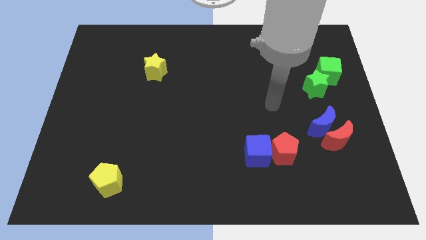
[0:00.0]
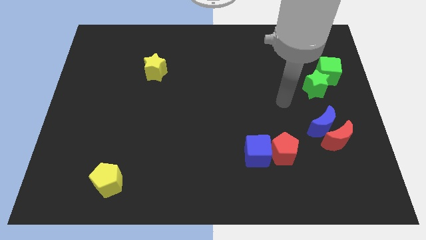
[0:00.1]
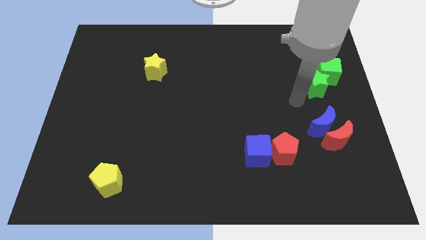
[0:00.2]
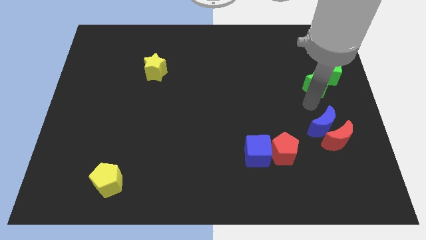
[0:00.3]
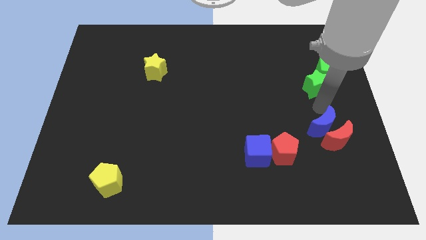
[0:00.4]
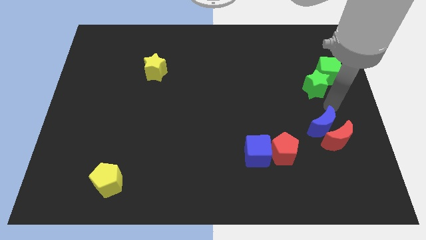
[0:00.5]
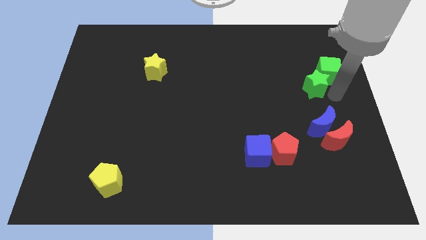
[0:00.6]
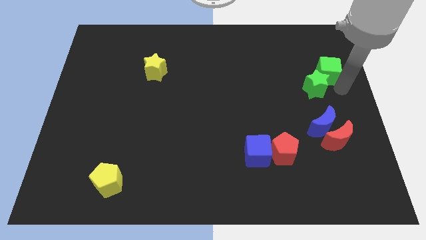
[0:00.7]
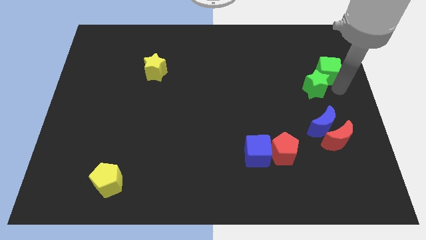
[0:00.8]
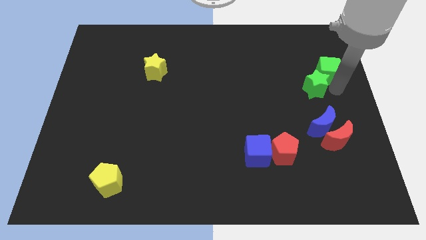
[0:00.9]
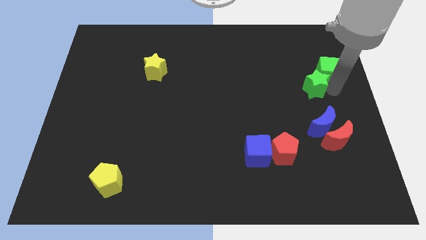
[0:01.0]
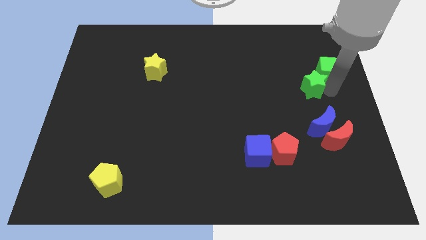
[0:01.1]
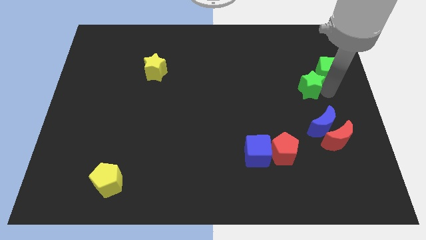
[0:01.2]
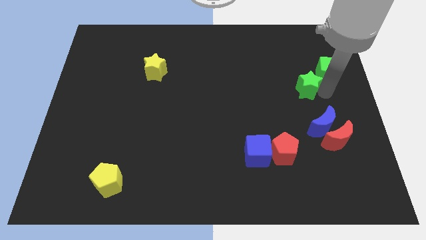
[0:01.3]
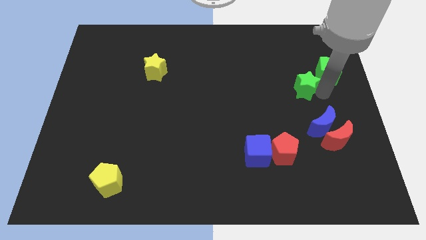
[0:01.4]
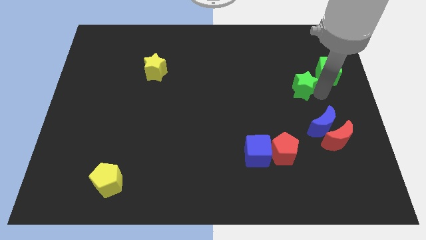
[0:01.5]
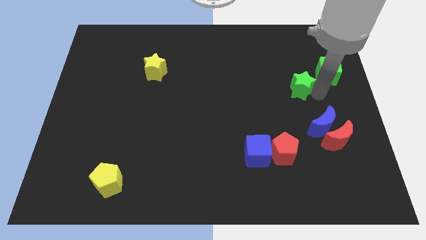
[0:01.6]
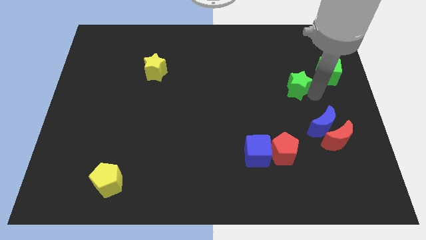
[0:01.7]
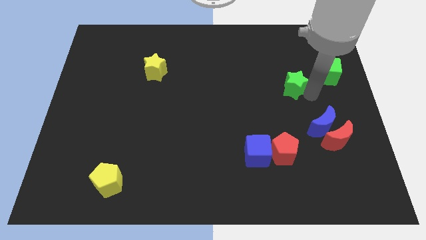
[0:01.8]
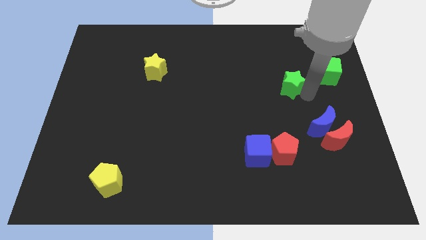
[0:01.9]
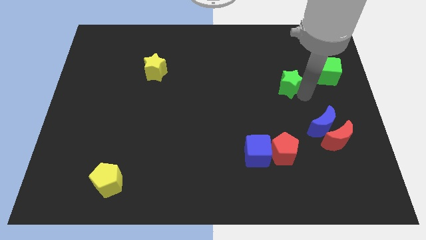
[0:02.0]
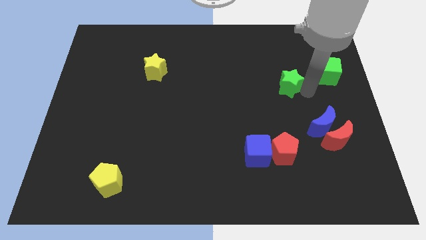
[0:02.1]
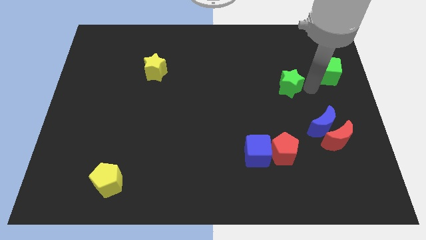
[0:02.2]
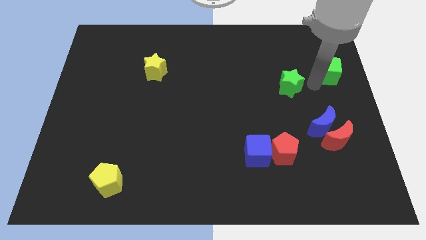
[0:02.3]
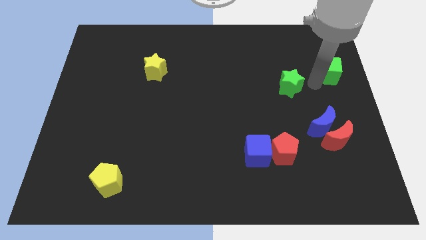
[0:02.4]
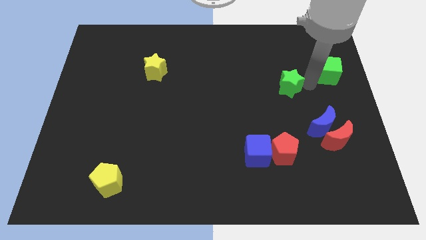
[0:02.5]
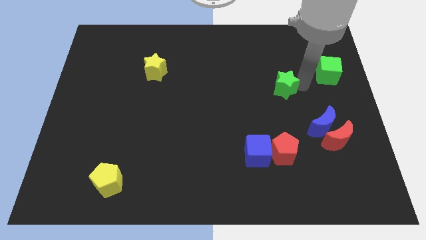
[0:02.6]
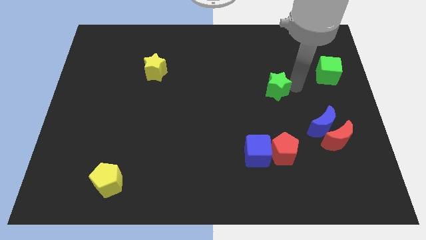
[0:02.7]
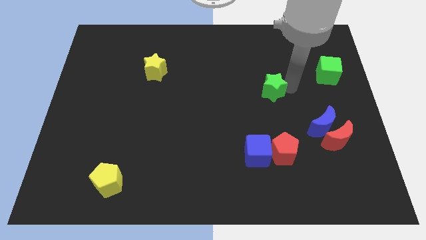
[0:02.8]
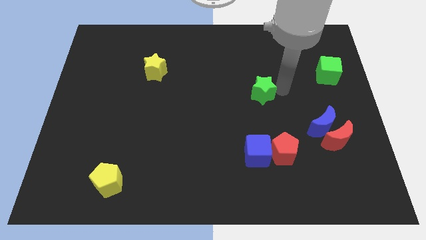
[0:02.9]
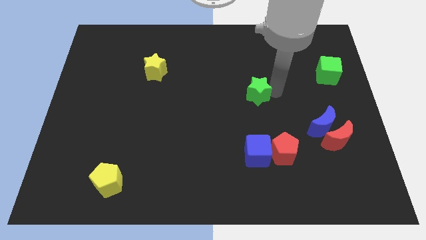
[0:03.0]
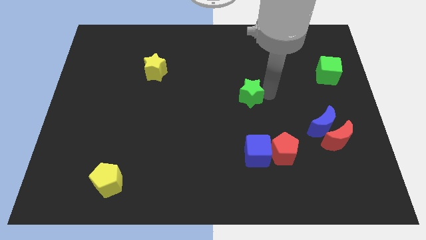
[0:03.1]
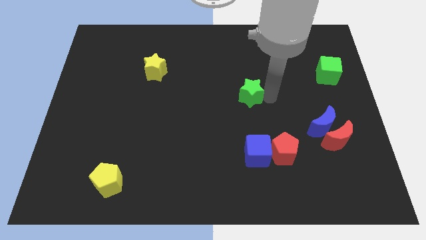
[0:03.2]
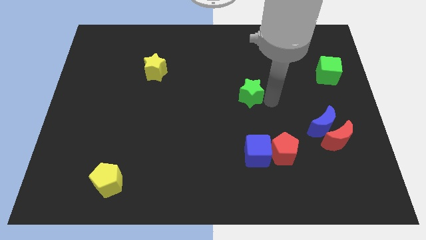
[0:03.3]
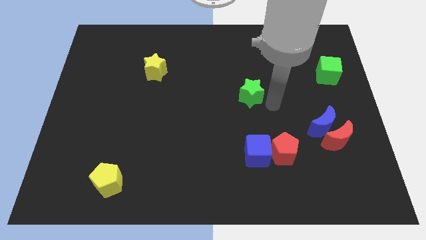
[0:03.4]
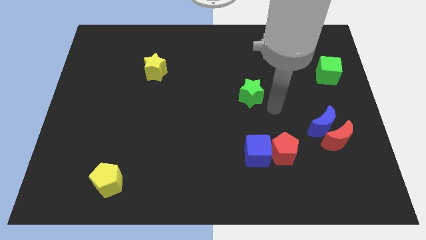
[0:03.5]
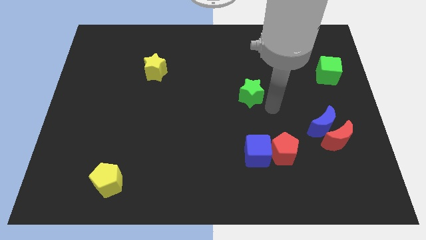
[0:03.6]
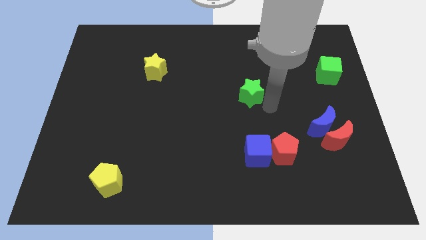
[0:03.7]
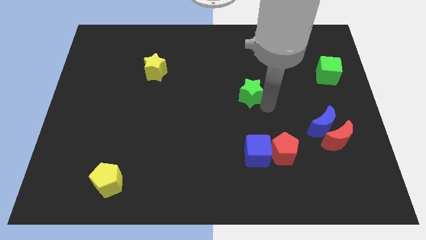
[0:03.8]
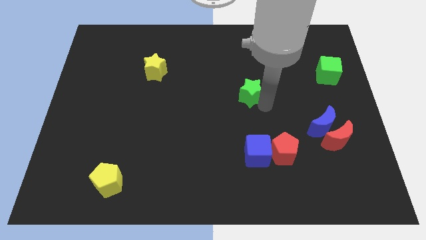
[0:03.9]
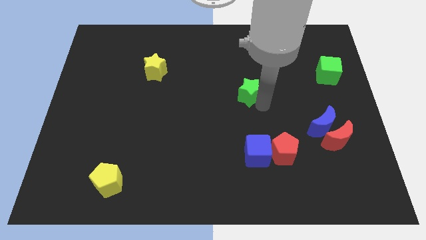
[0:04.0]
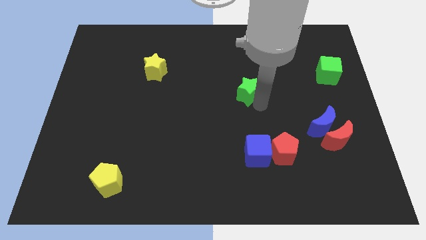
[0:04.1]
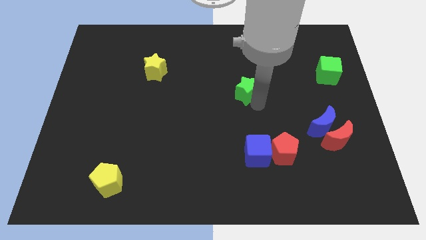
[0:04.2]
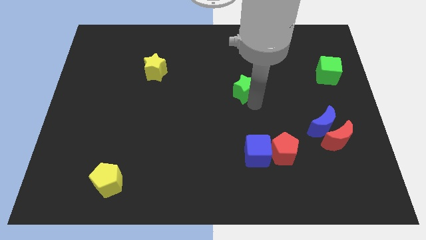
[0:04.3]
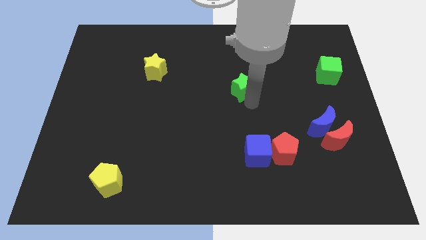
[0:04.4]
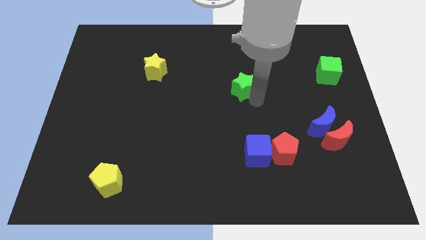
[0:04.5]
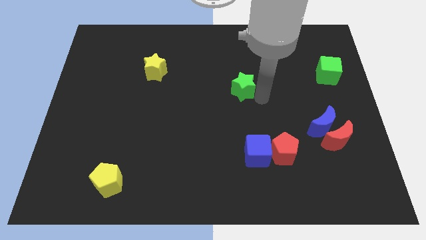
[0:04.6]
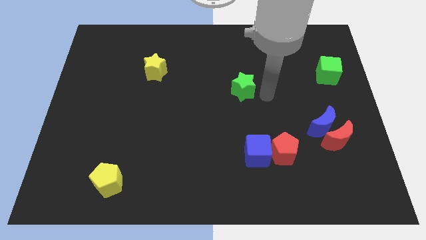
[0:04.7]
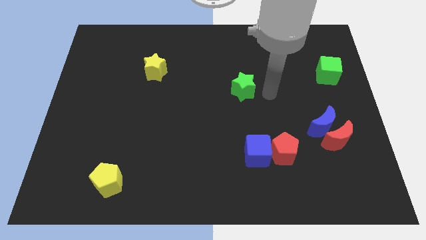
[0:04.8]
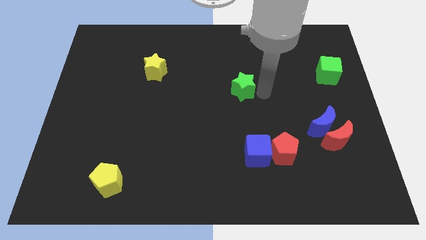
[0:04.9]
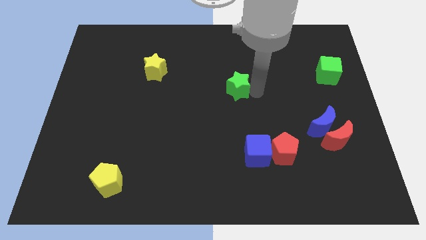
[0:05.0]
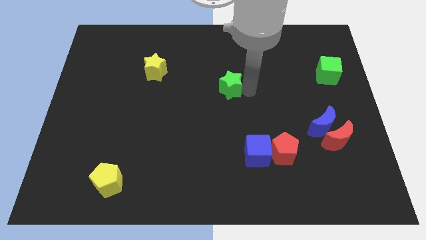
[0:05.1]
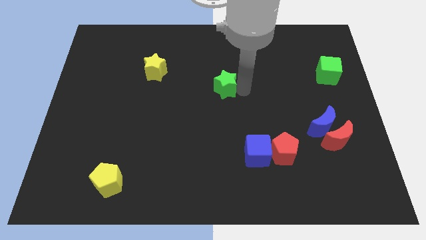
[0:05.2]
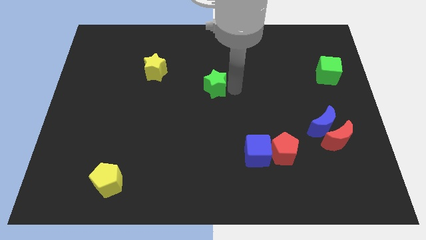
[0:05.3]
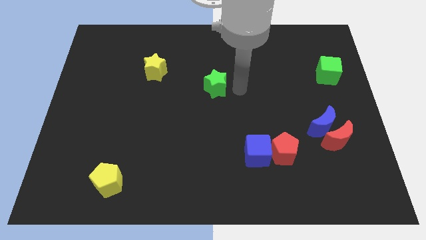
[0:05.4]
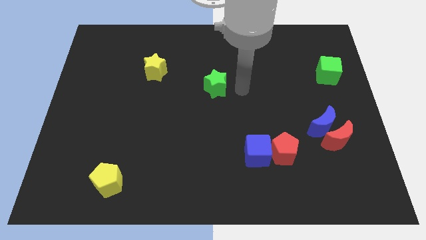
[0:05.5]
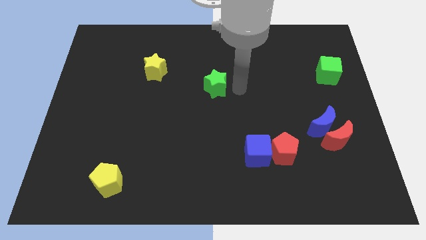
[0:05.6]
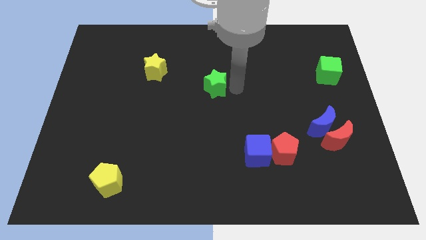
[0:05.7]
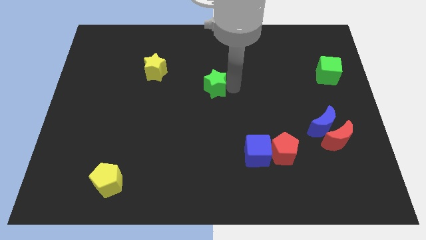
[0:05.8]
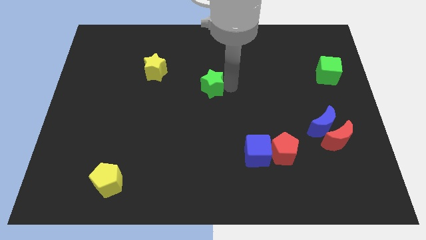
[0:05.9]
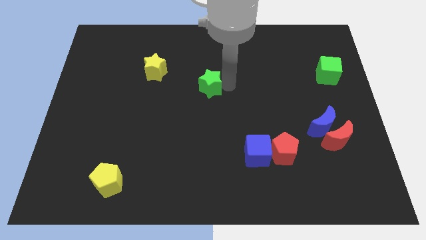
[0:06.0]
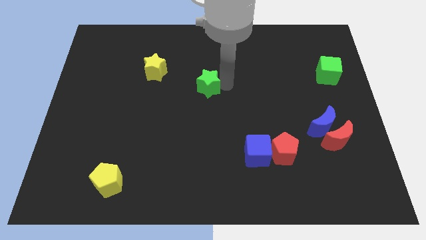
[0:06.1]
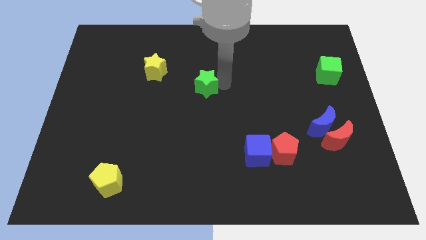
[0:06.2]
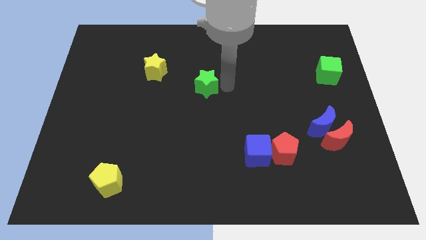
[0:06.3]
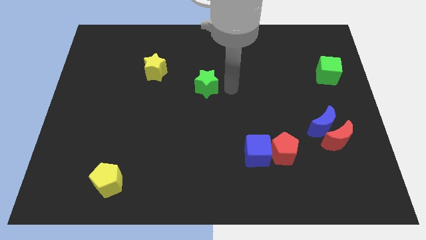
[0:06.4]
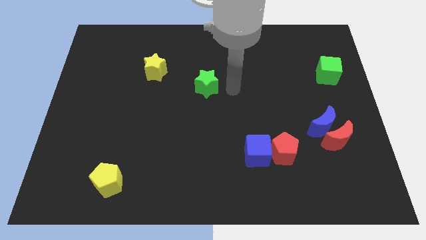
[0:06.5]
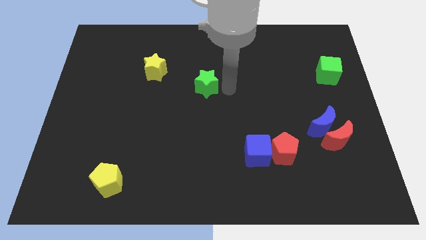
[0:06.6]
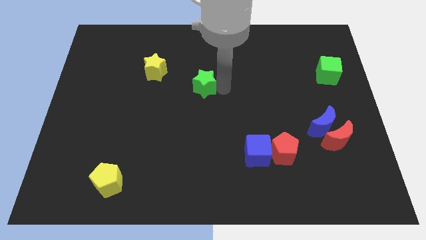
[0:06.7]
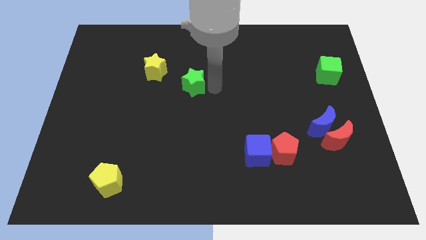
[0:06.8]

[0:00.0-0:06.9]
push the green star diagonally down and to the right of the yellow star

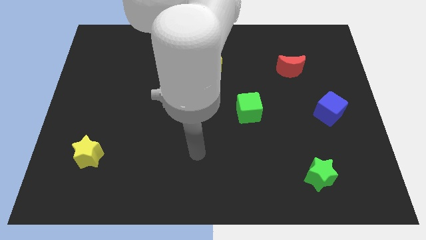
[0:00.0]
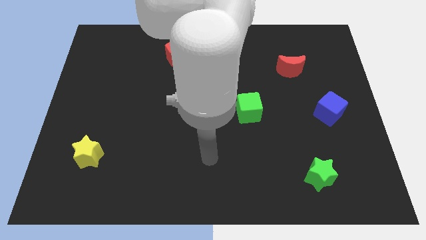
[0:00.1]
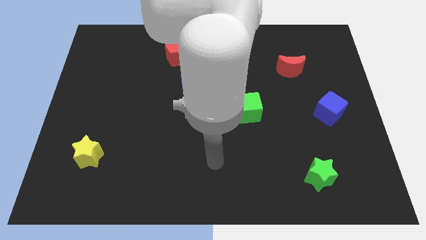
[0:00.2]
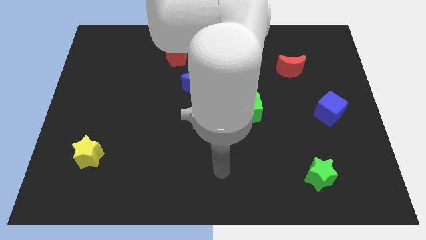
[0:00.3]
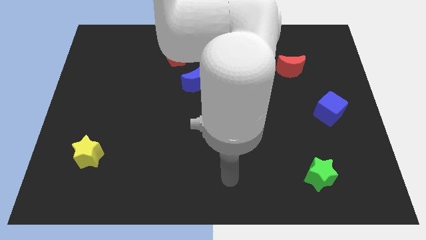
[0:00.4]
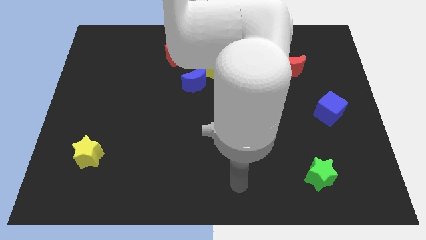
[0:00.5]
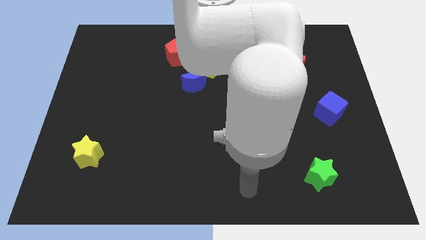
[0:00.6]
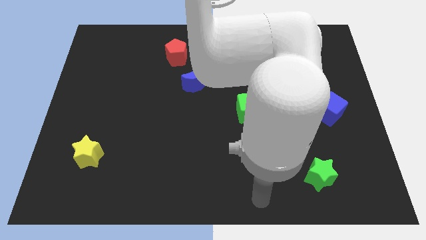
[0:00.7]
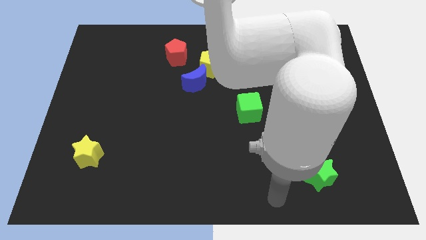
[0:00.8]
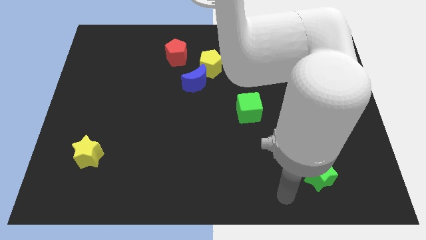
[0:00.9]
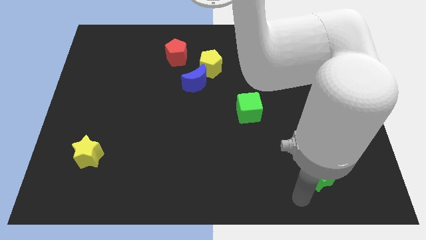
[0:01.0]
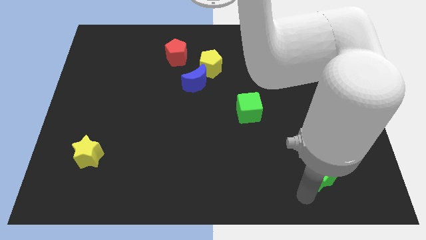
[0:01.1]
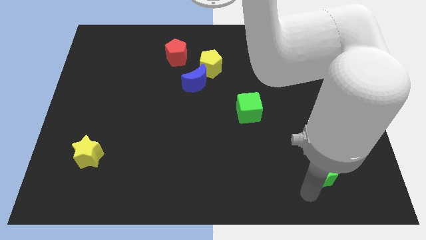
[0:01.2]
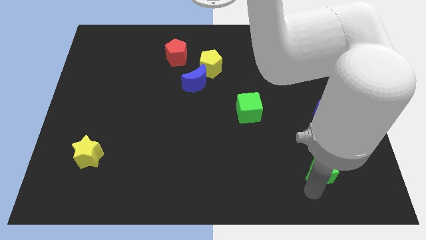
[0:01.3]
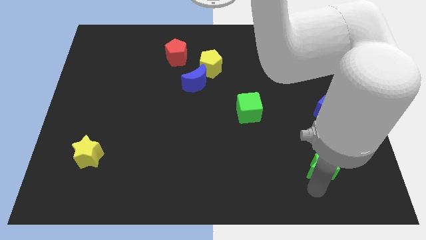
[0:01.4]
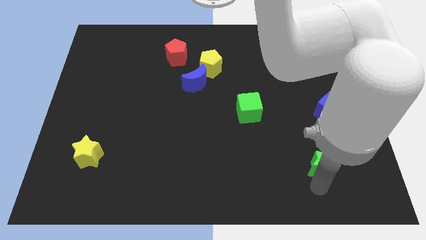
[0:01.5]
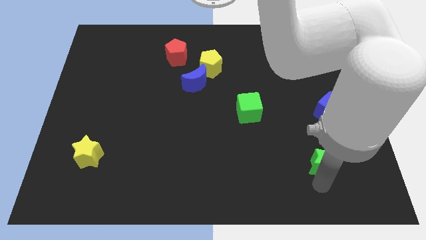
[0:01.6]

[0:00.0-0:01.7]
push the green star to the bottom of the blue cube
